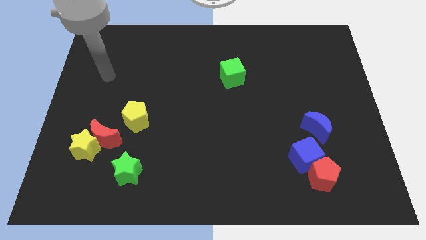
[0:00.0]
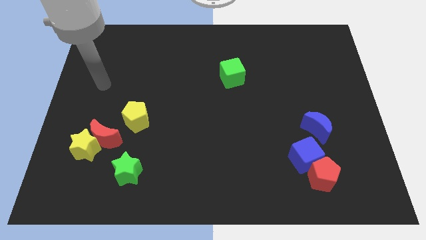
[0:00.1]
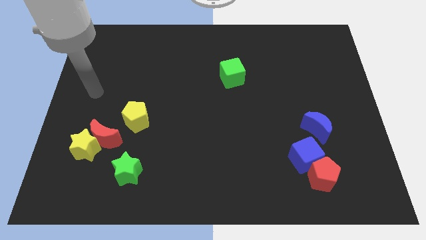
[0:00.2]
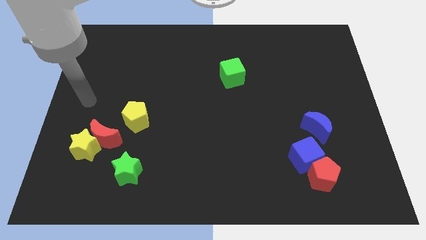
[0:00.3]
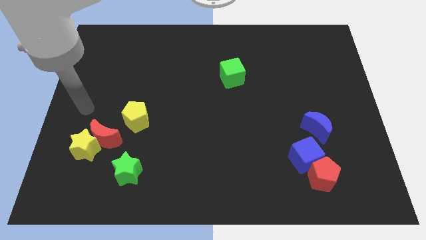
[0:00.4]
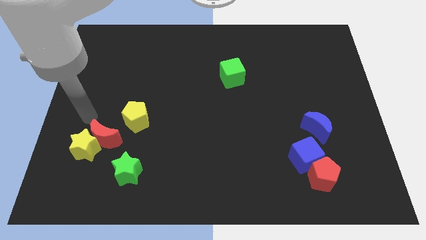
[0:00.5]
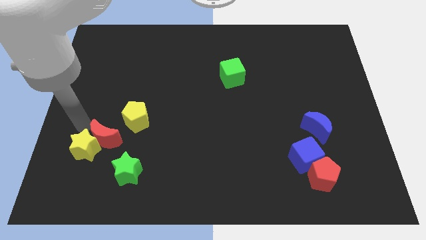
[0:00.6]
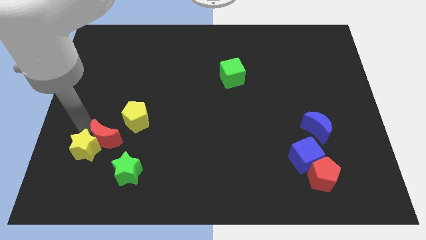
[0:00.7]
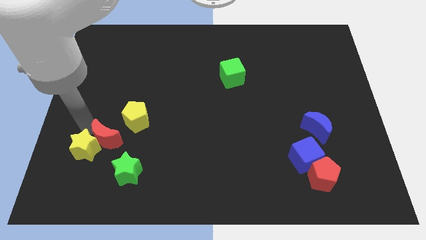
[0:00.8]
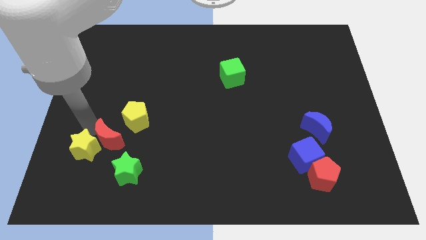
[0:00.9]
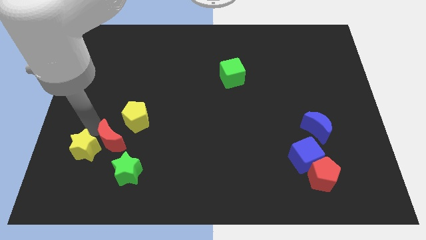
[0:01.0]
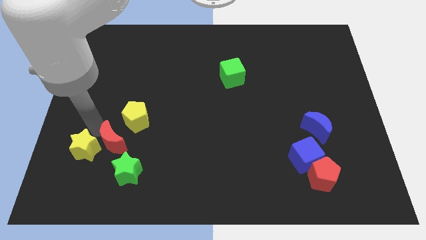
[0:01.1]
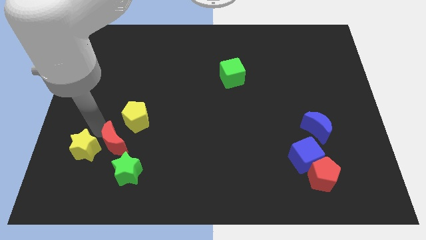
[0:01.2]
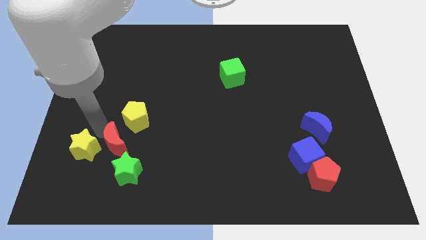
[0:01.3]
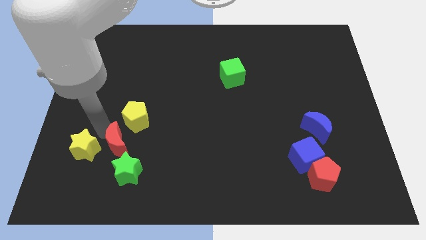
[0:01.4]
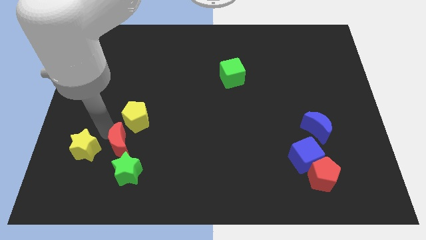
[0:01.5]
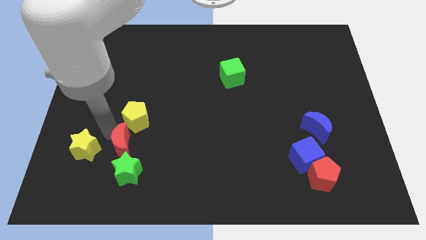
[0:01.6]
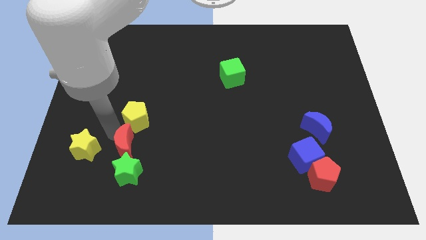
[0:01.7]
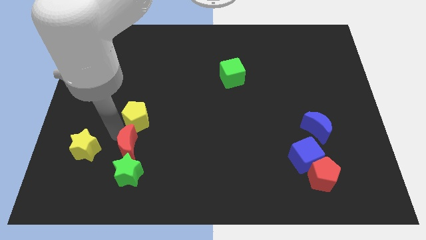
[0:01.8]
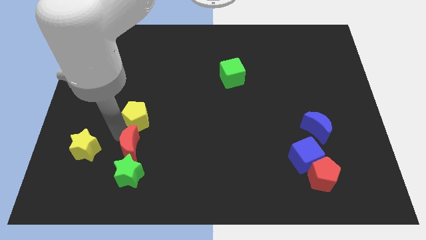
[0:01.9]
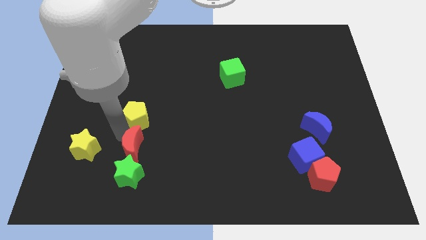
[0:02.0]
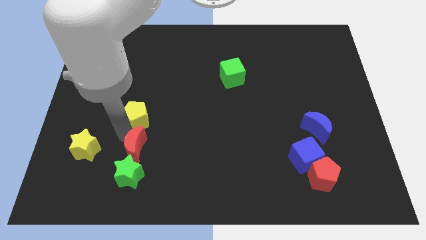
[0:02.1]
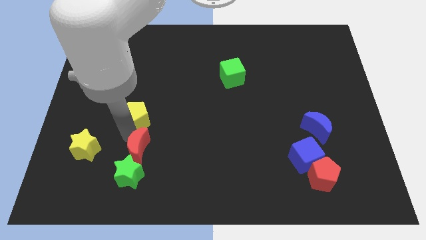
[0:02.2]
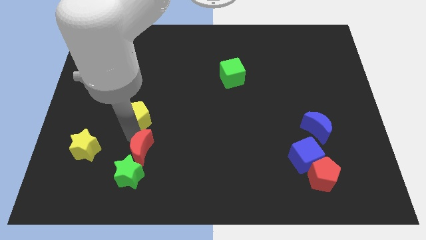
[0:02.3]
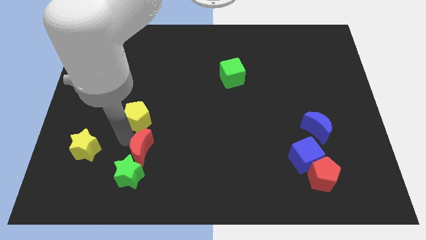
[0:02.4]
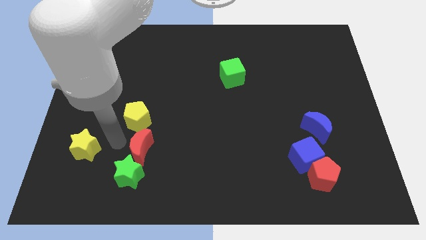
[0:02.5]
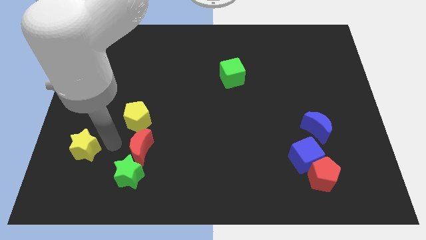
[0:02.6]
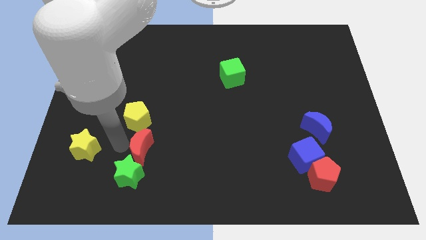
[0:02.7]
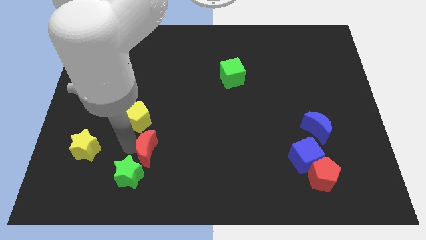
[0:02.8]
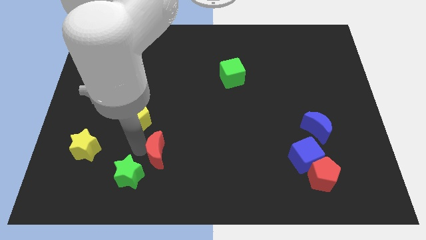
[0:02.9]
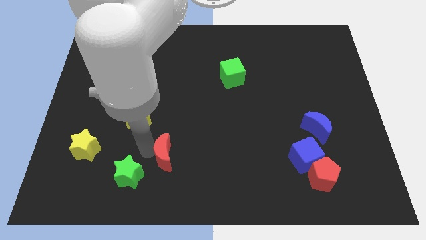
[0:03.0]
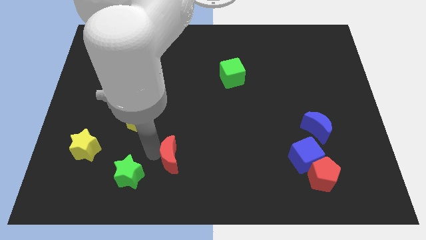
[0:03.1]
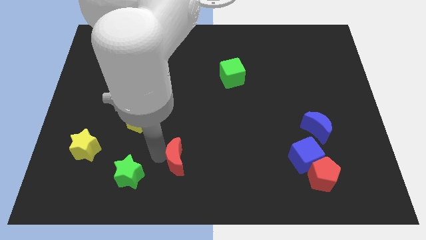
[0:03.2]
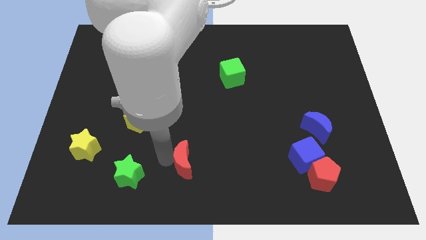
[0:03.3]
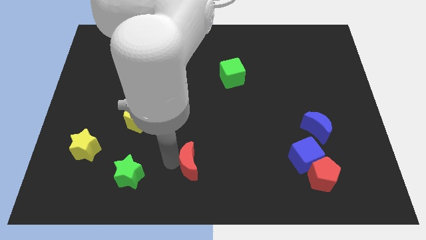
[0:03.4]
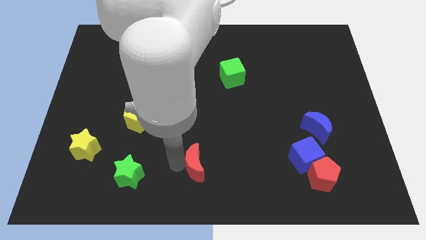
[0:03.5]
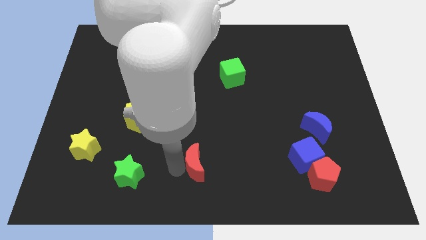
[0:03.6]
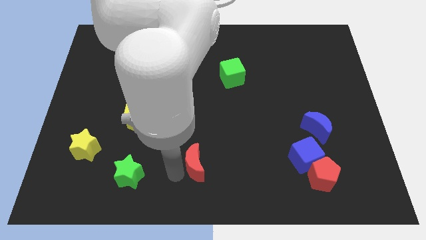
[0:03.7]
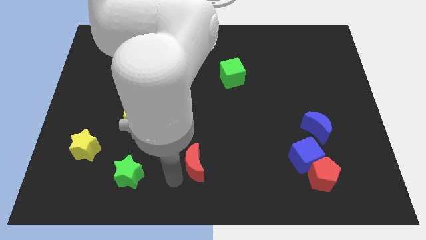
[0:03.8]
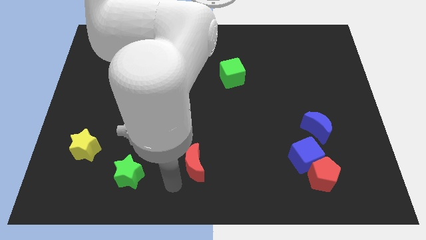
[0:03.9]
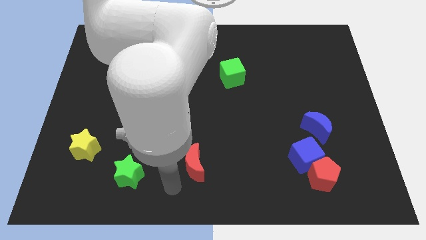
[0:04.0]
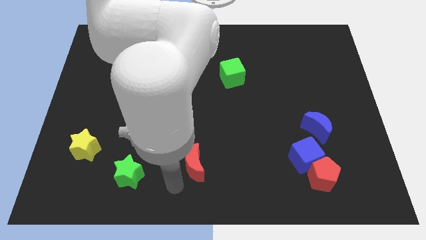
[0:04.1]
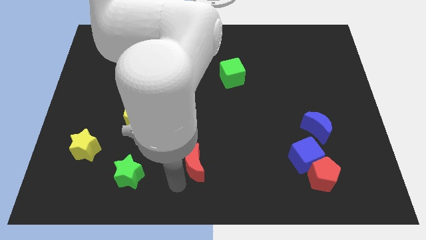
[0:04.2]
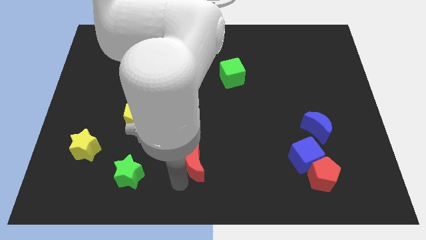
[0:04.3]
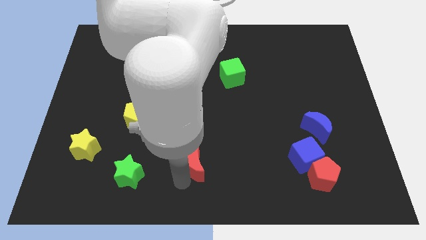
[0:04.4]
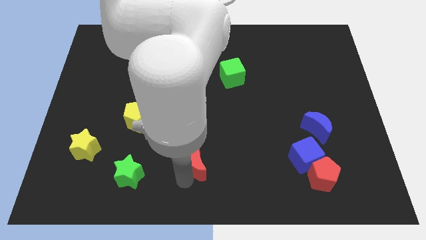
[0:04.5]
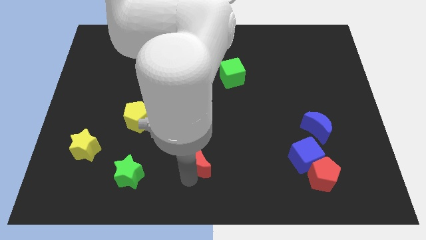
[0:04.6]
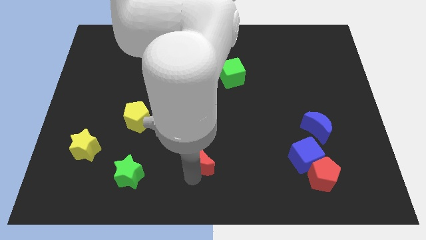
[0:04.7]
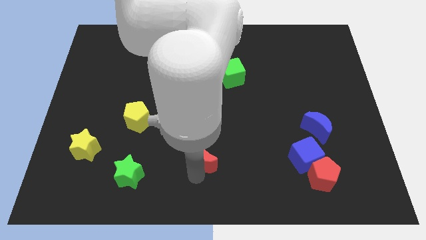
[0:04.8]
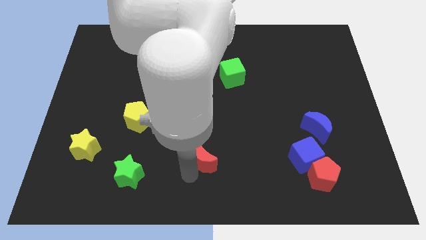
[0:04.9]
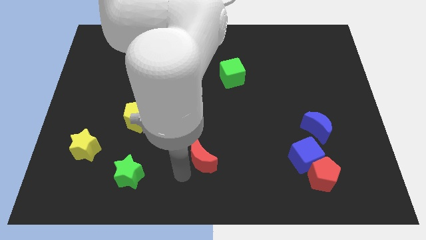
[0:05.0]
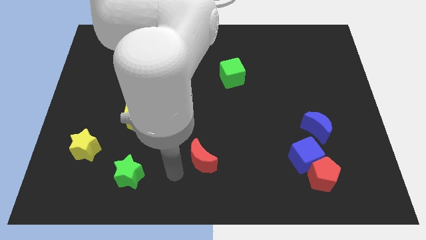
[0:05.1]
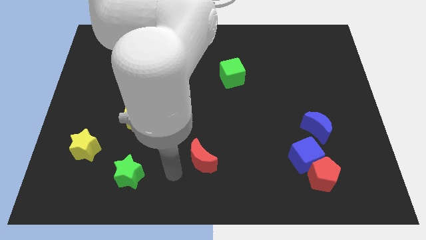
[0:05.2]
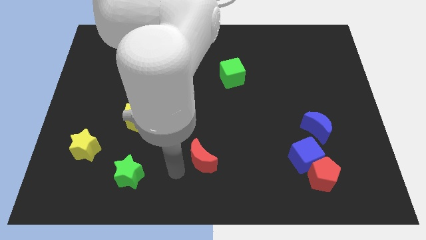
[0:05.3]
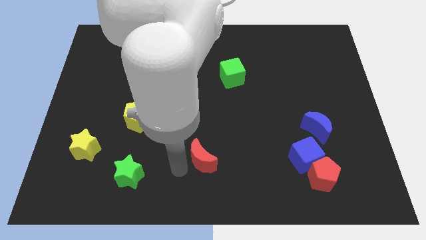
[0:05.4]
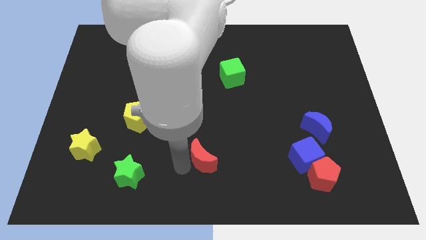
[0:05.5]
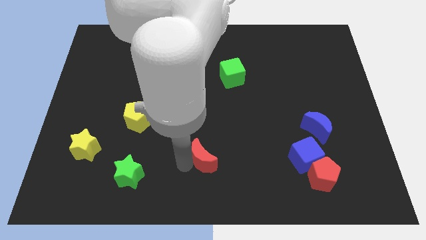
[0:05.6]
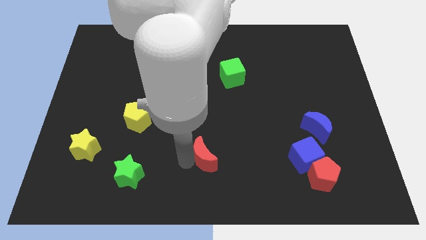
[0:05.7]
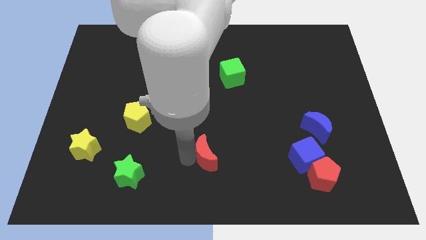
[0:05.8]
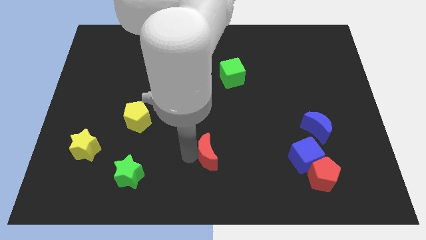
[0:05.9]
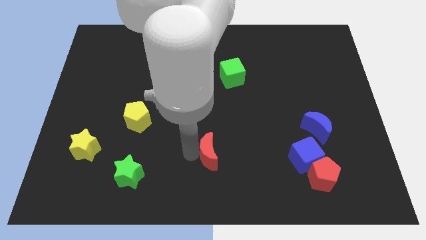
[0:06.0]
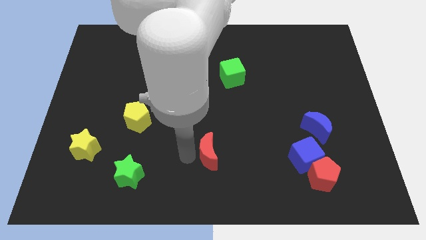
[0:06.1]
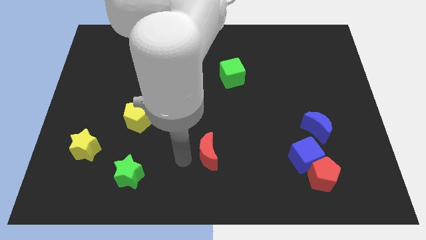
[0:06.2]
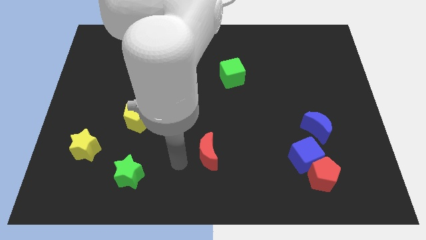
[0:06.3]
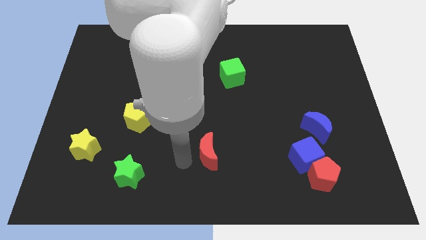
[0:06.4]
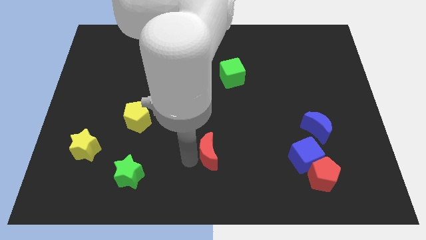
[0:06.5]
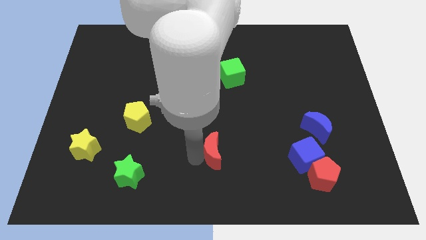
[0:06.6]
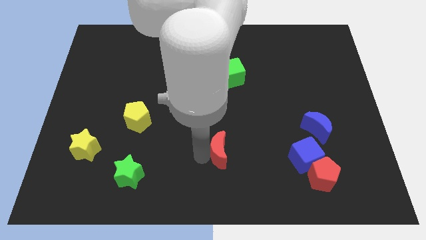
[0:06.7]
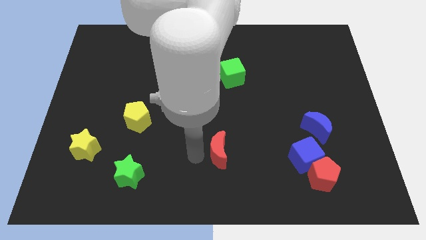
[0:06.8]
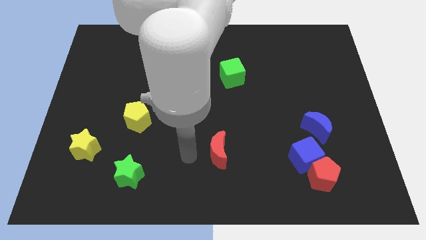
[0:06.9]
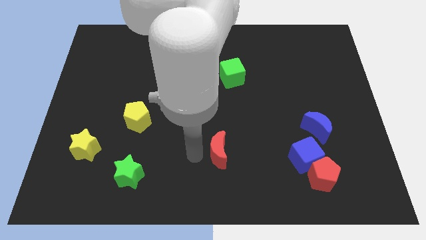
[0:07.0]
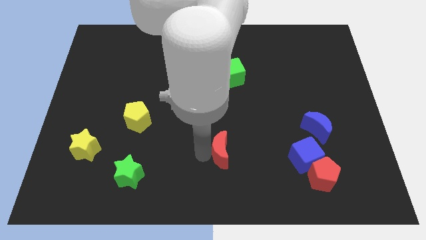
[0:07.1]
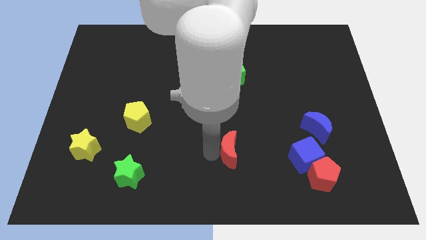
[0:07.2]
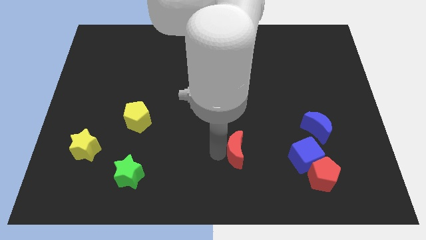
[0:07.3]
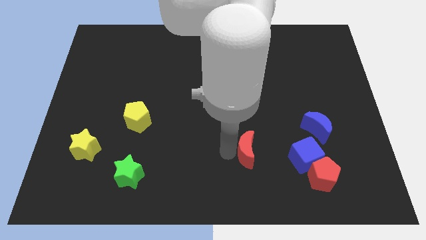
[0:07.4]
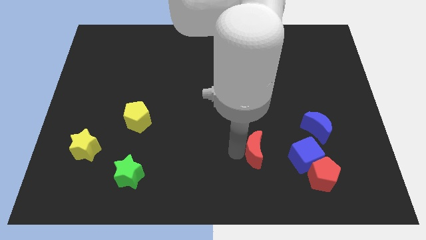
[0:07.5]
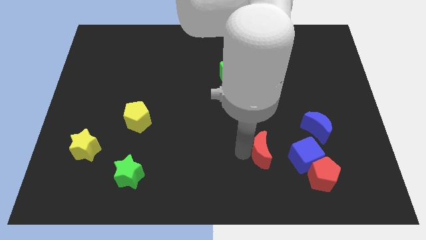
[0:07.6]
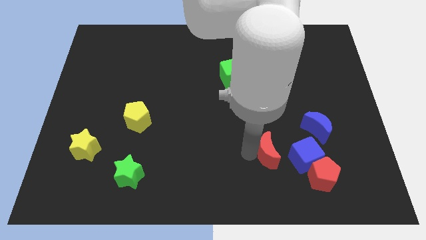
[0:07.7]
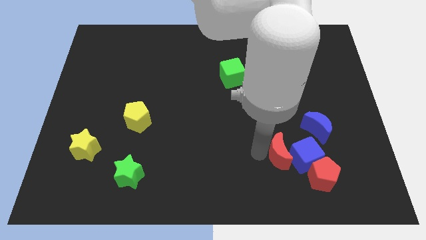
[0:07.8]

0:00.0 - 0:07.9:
put the red moon close to the blue cube
